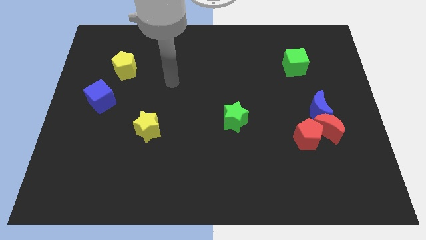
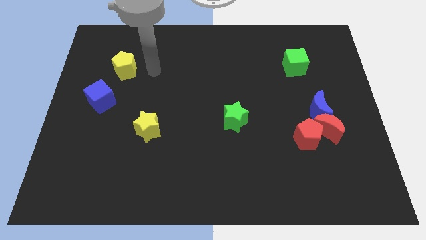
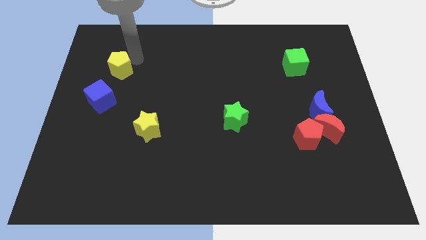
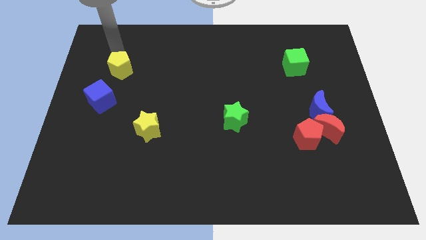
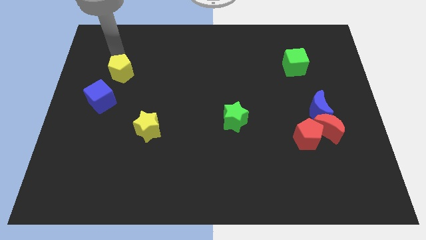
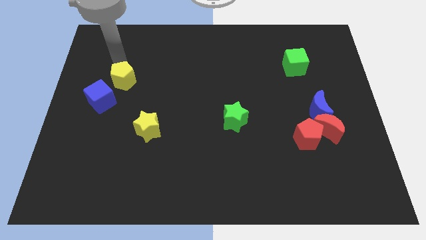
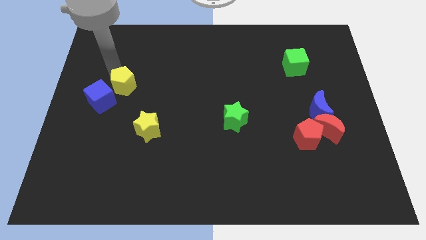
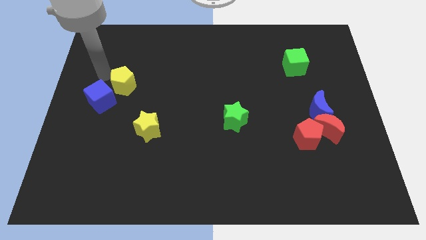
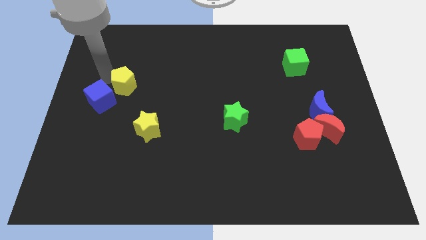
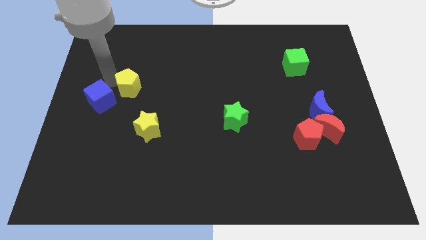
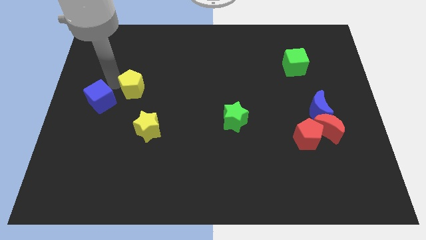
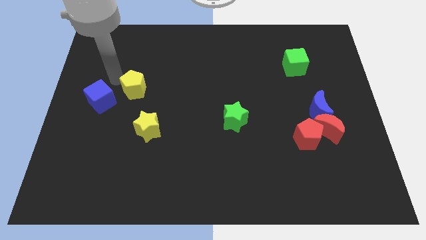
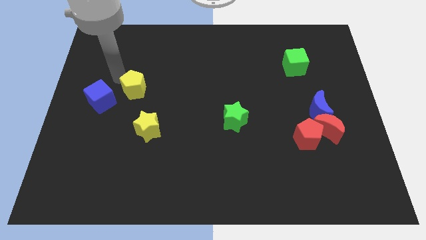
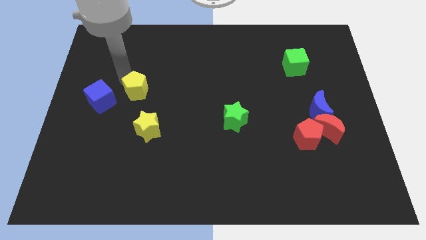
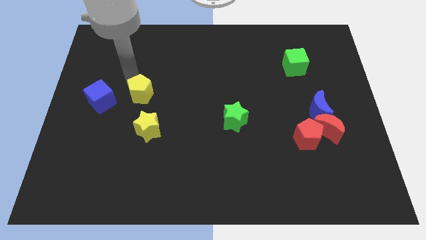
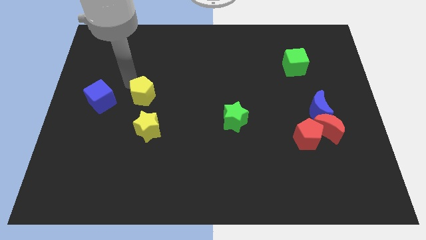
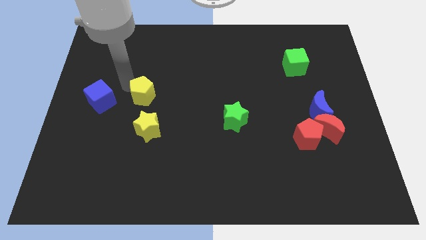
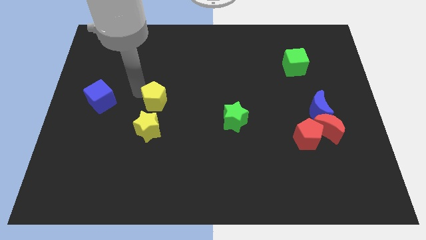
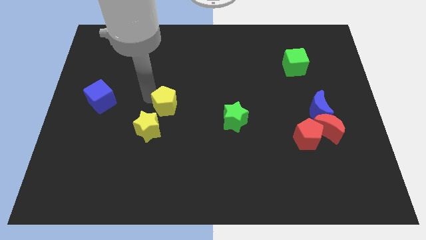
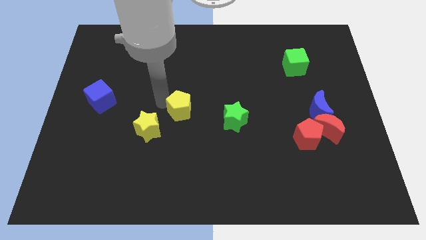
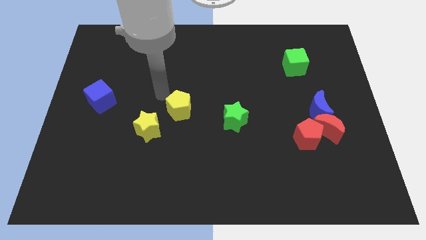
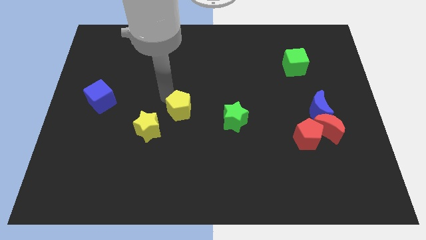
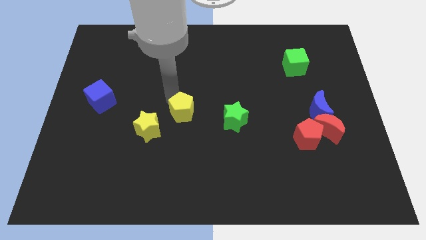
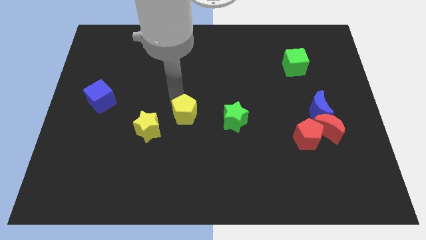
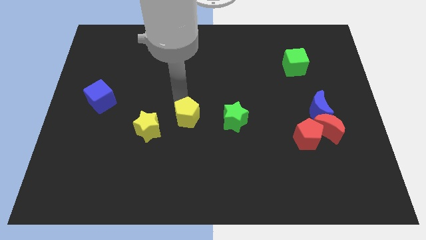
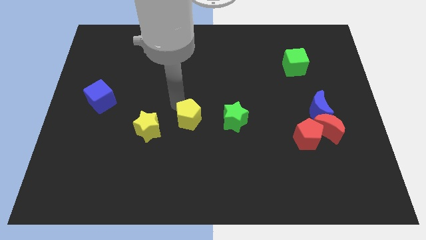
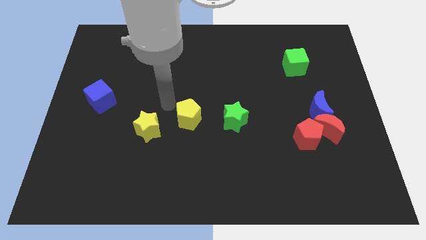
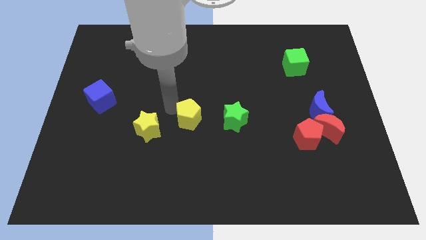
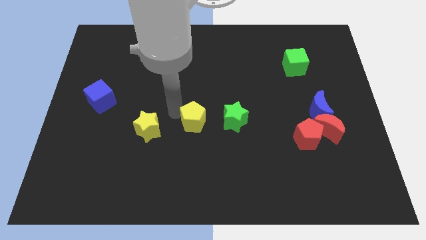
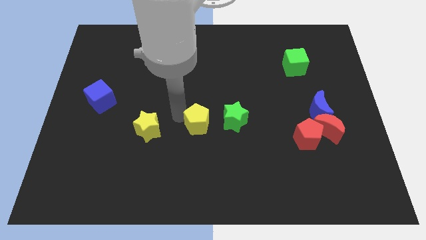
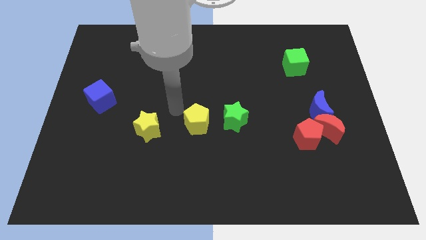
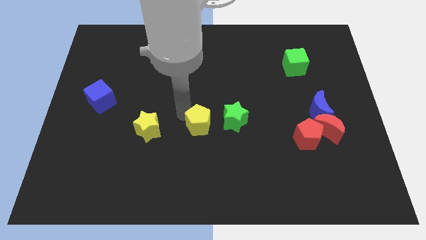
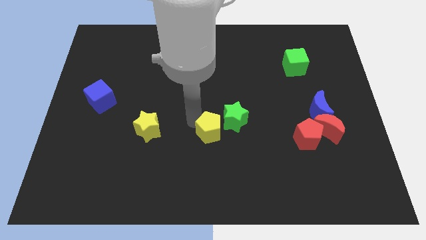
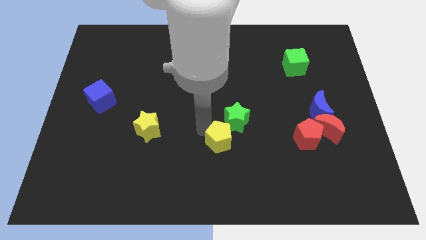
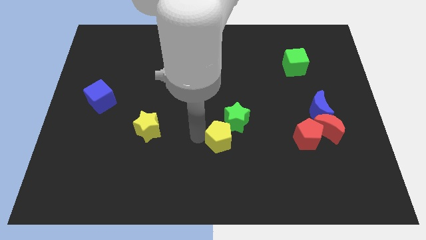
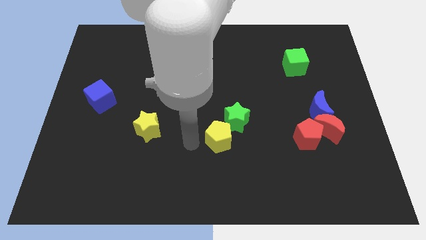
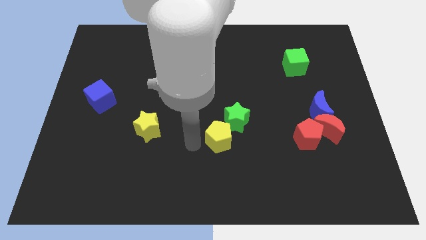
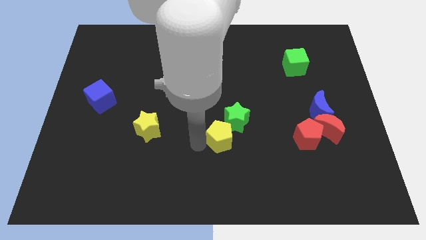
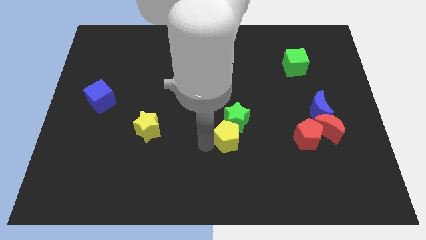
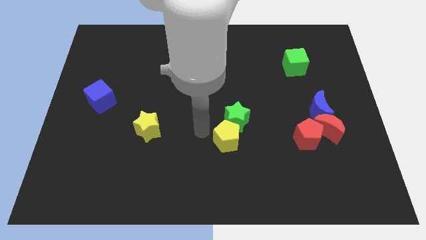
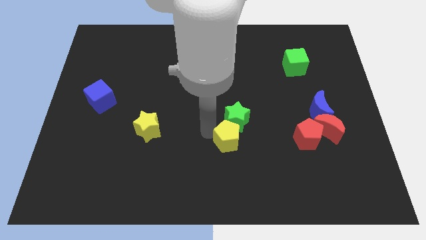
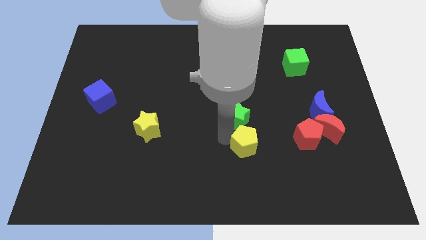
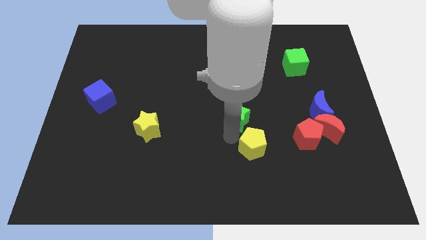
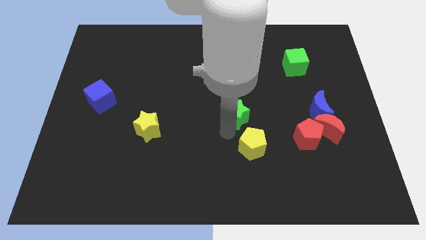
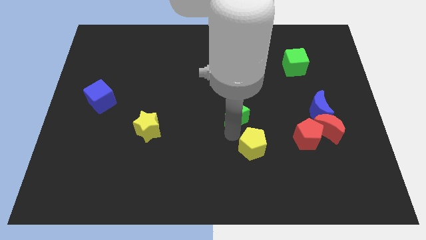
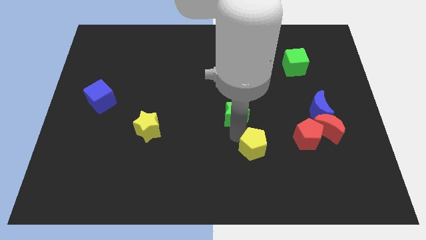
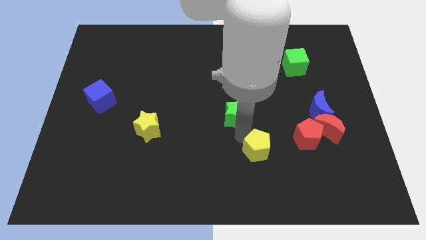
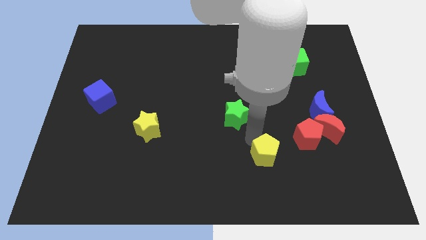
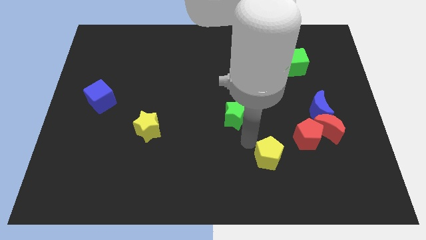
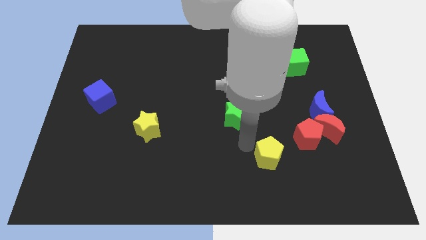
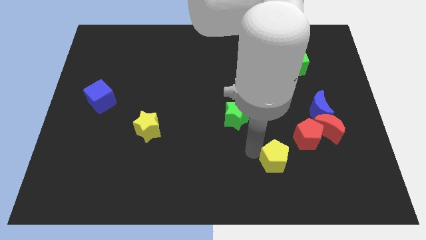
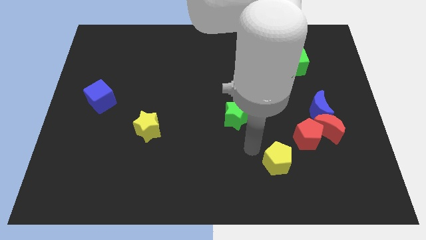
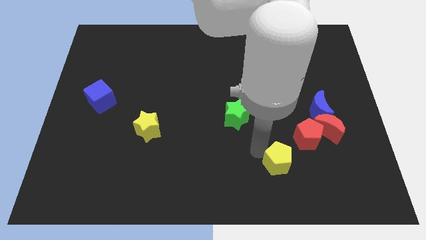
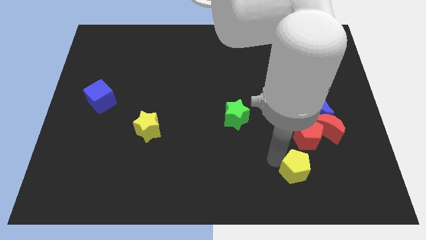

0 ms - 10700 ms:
push the yellow pentagon below the red pentagon
